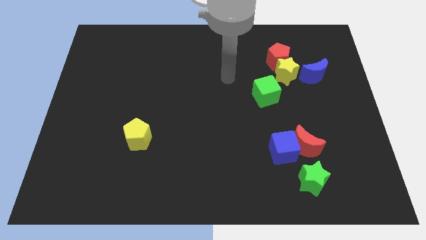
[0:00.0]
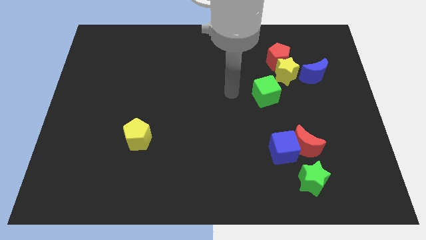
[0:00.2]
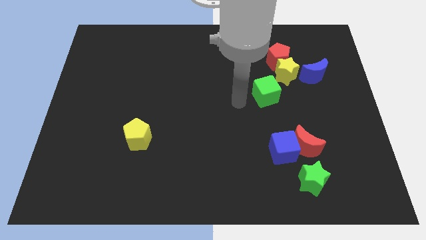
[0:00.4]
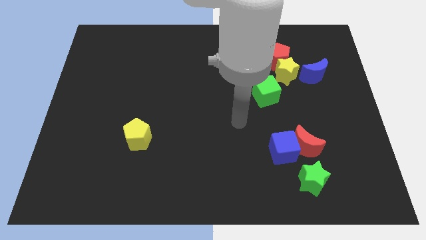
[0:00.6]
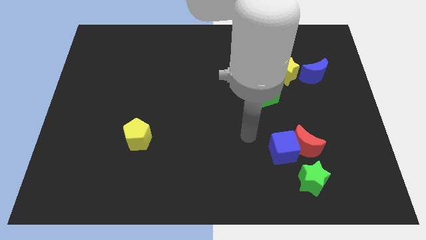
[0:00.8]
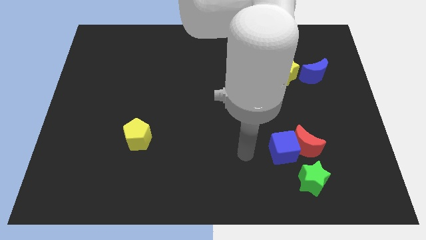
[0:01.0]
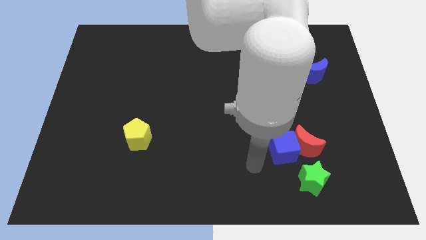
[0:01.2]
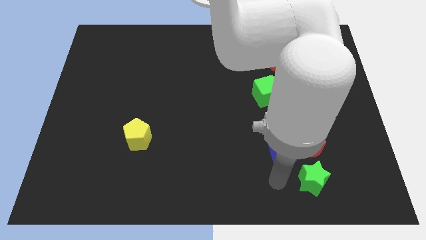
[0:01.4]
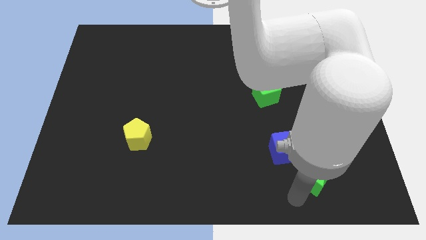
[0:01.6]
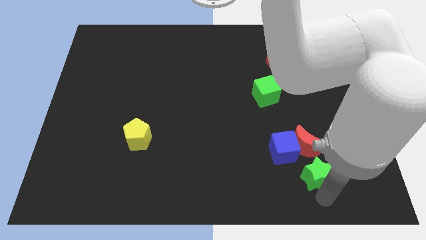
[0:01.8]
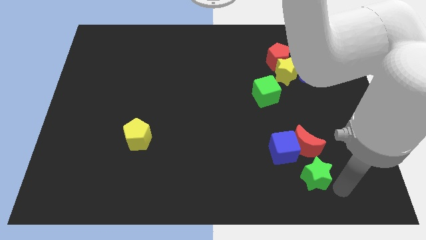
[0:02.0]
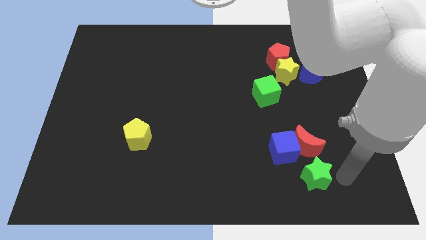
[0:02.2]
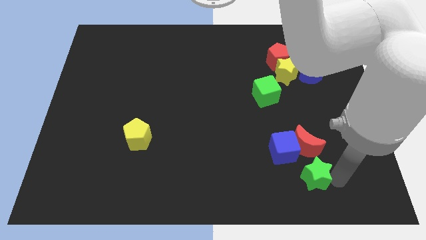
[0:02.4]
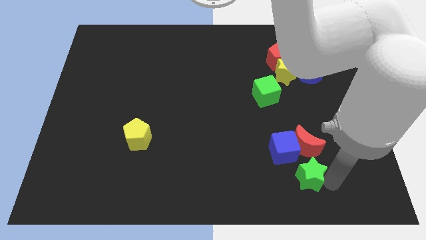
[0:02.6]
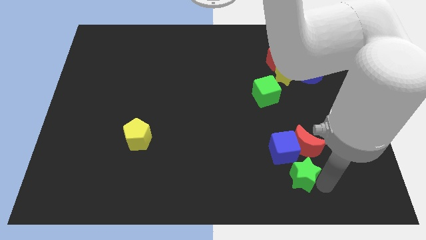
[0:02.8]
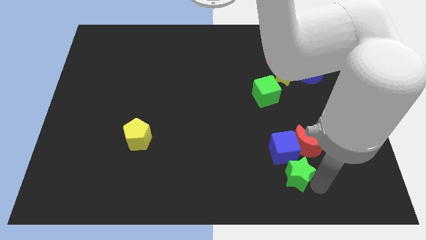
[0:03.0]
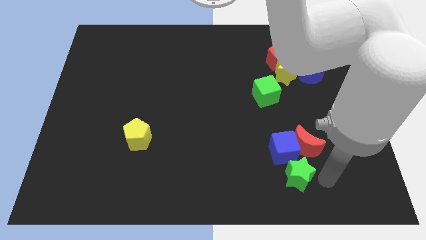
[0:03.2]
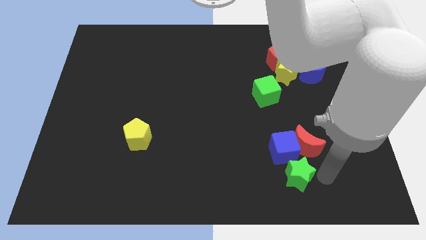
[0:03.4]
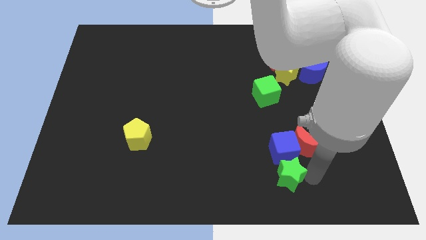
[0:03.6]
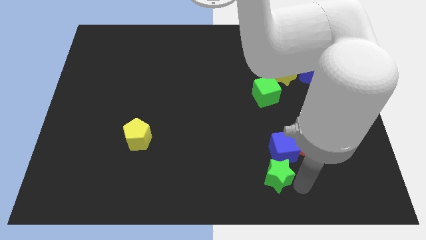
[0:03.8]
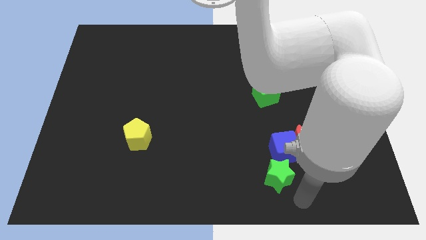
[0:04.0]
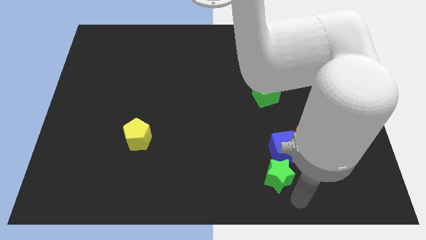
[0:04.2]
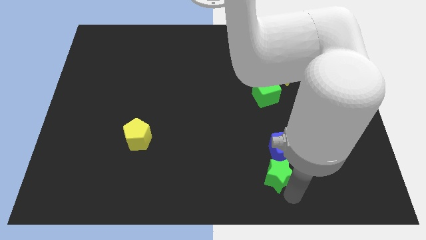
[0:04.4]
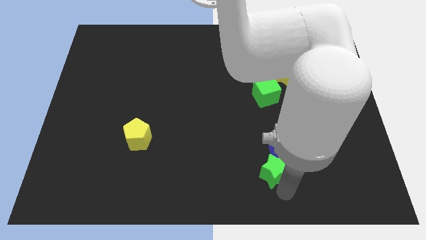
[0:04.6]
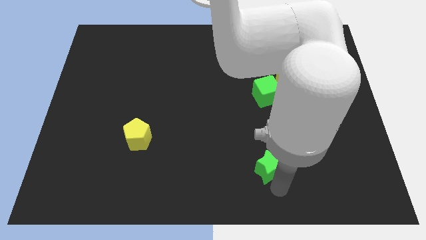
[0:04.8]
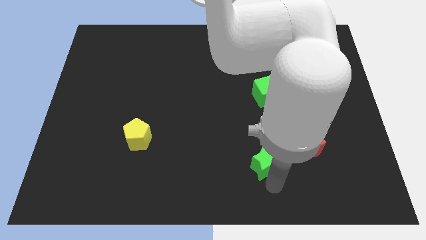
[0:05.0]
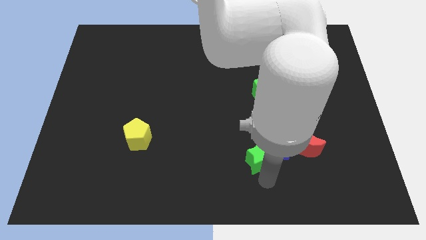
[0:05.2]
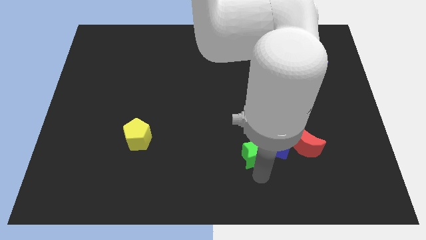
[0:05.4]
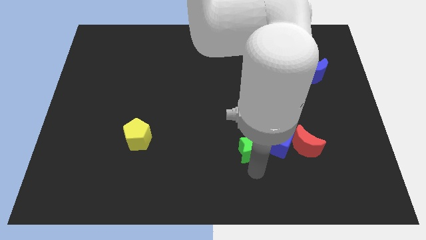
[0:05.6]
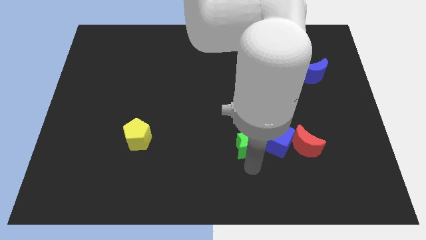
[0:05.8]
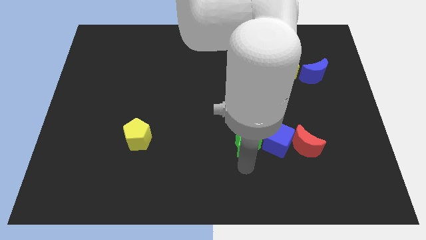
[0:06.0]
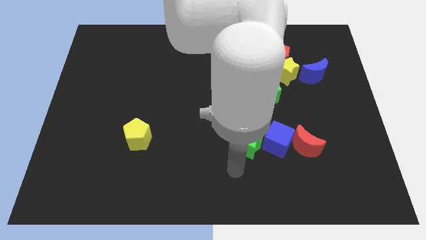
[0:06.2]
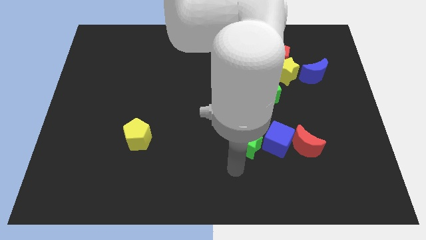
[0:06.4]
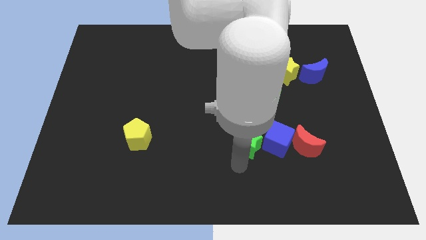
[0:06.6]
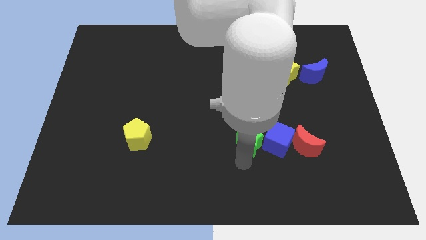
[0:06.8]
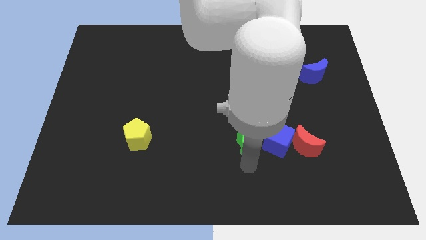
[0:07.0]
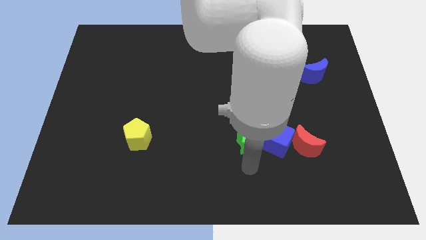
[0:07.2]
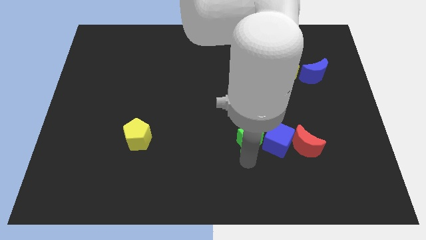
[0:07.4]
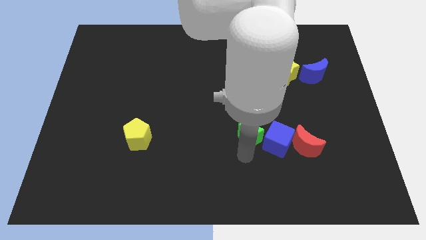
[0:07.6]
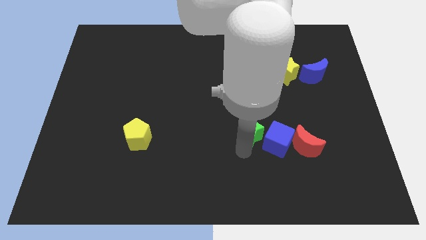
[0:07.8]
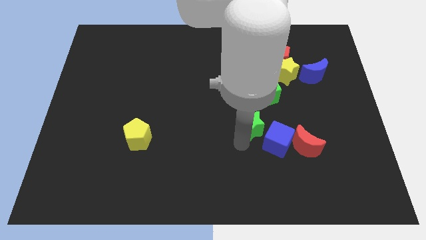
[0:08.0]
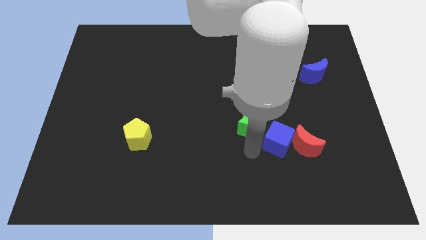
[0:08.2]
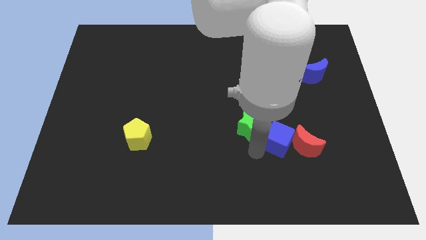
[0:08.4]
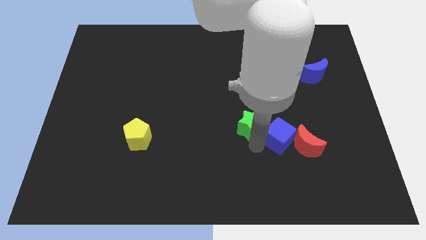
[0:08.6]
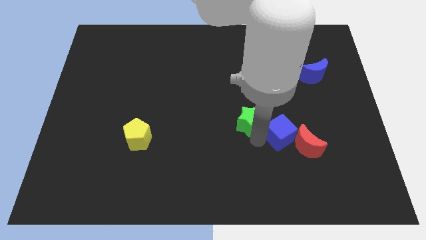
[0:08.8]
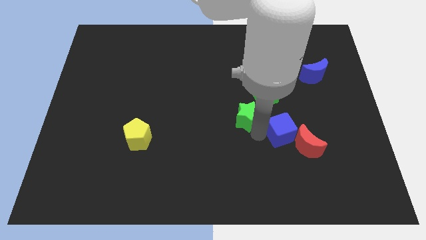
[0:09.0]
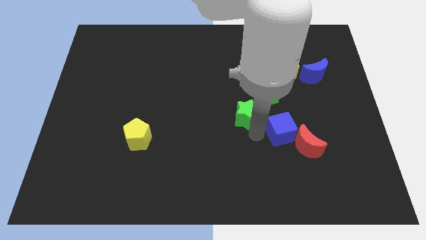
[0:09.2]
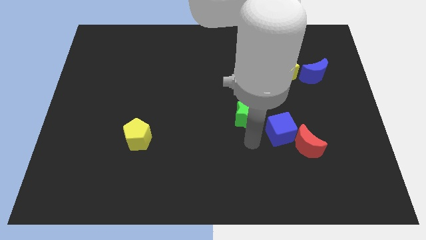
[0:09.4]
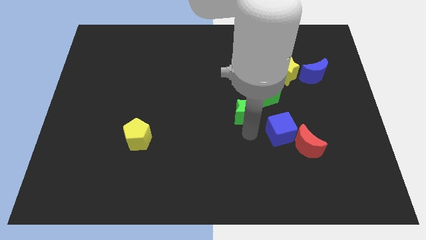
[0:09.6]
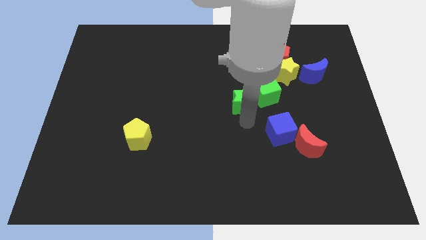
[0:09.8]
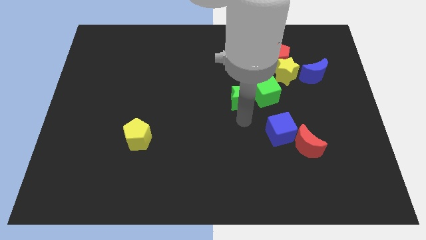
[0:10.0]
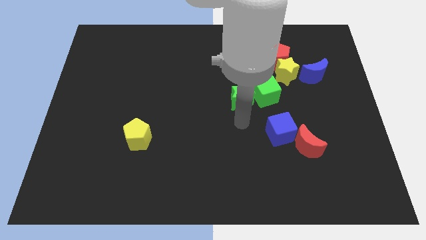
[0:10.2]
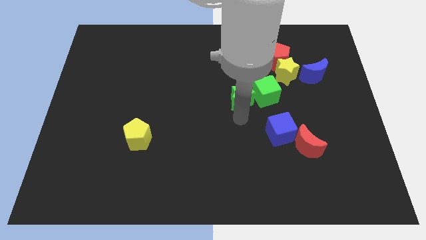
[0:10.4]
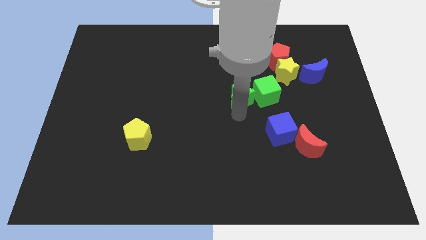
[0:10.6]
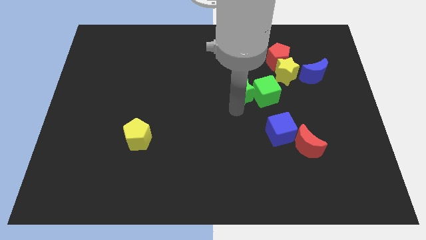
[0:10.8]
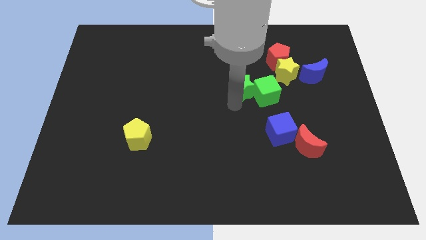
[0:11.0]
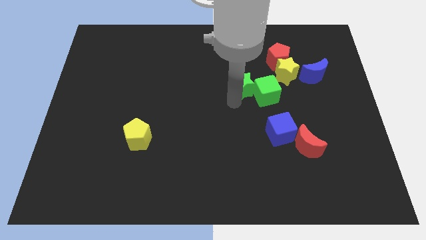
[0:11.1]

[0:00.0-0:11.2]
push the green star to the left side of the yellow star

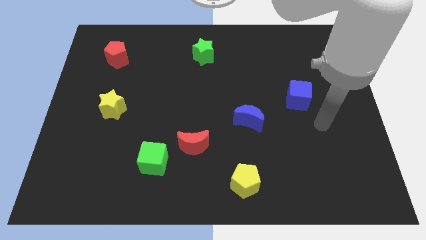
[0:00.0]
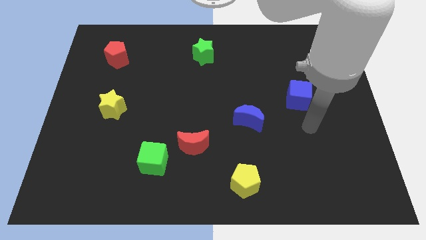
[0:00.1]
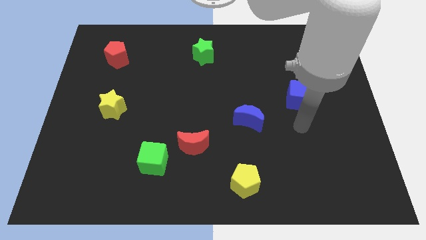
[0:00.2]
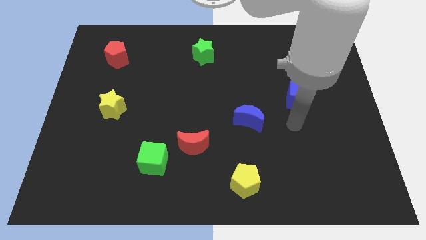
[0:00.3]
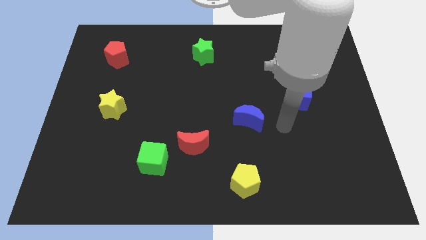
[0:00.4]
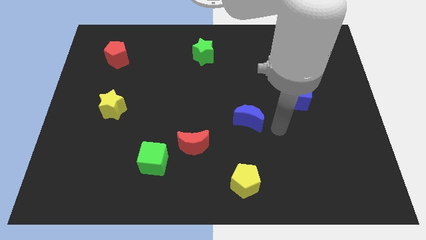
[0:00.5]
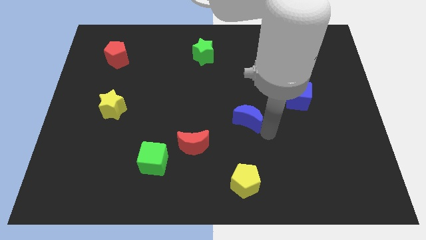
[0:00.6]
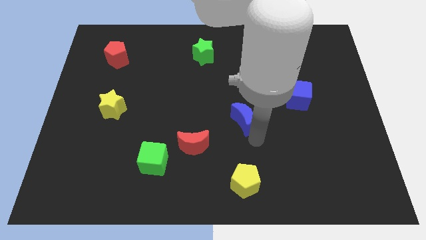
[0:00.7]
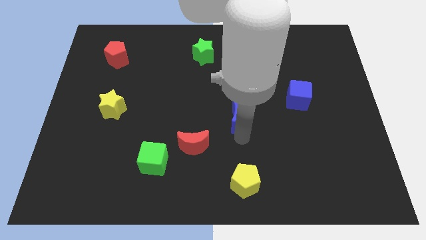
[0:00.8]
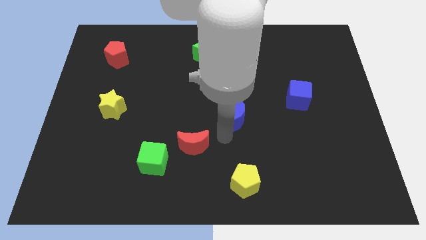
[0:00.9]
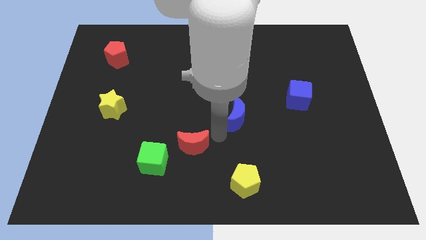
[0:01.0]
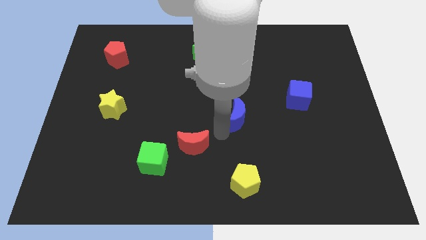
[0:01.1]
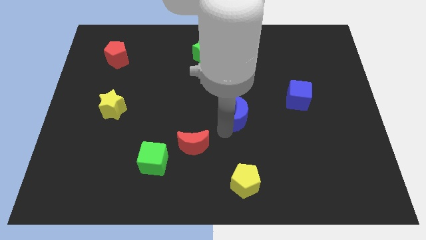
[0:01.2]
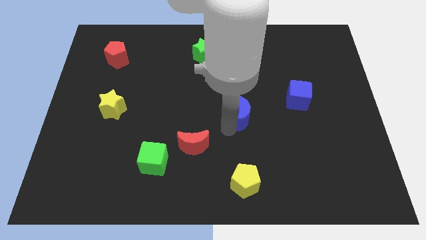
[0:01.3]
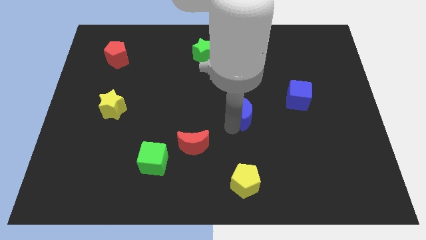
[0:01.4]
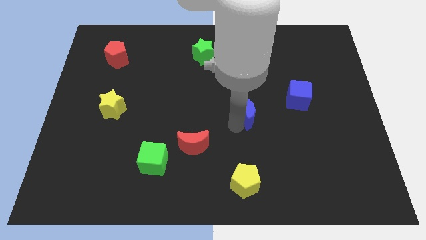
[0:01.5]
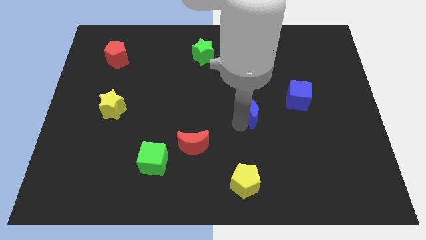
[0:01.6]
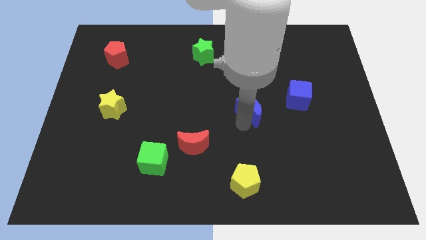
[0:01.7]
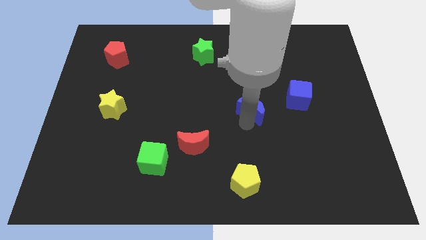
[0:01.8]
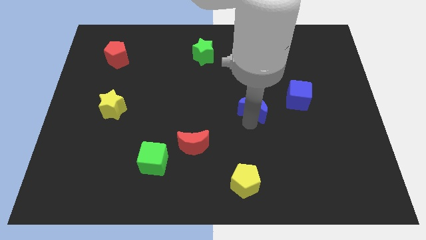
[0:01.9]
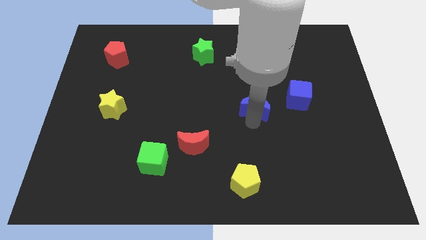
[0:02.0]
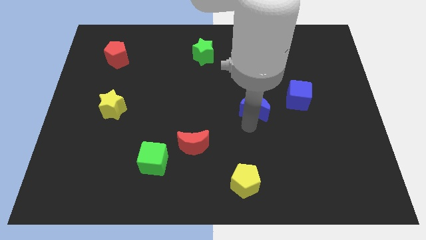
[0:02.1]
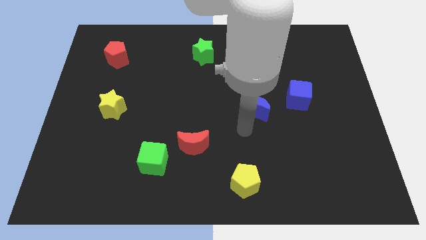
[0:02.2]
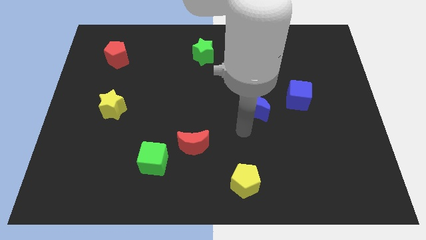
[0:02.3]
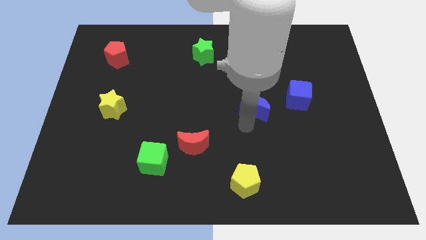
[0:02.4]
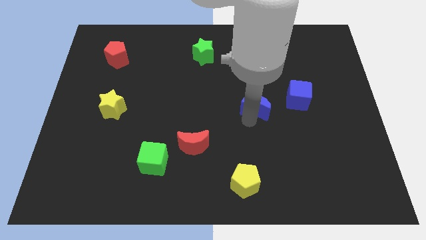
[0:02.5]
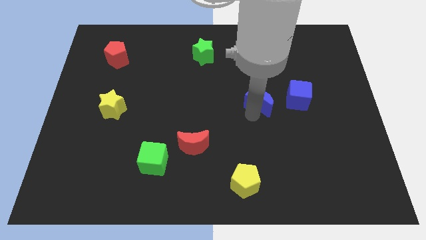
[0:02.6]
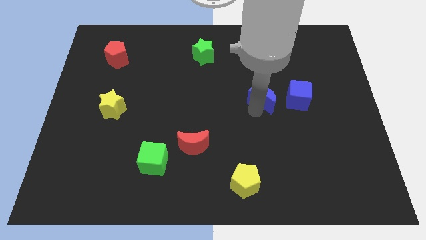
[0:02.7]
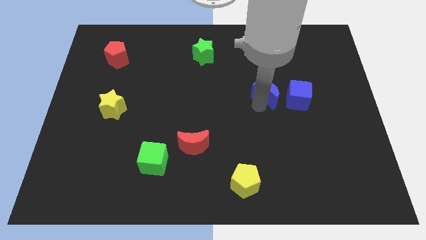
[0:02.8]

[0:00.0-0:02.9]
move the blue moon to the top left side of the blue cube
